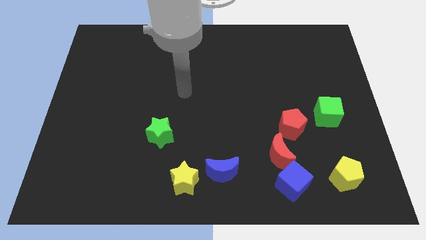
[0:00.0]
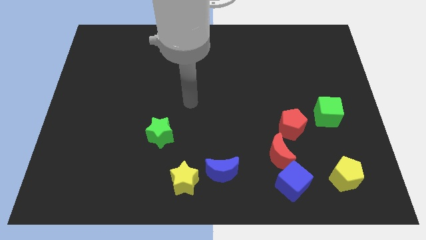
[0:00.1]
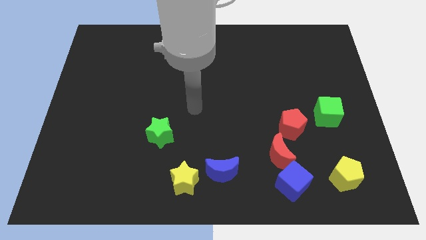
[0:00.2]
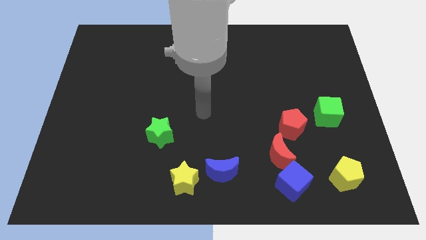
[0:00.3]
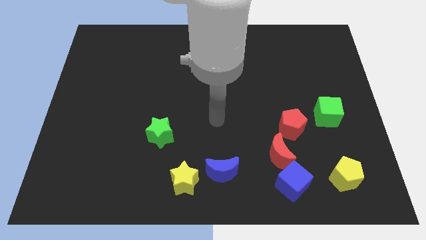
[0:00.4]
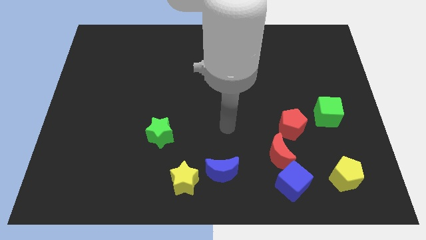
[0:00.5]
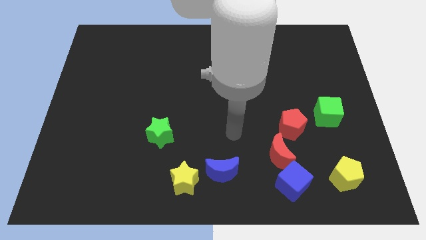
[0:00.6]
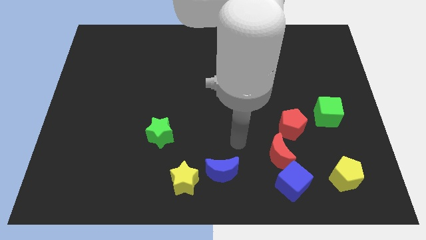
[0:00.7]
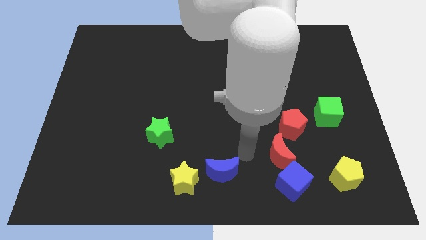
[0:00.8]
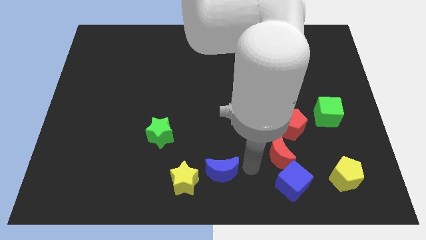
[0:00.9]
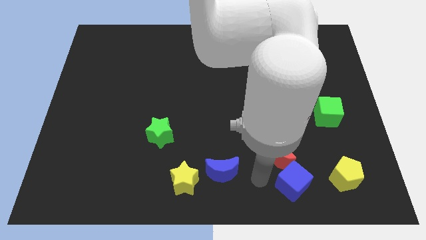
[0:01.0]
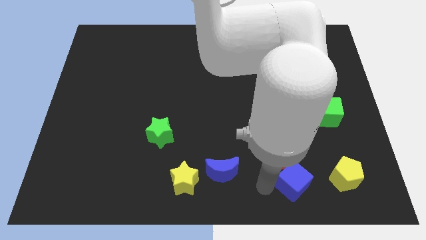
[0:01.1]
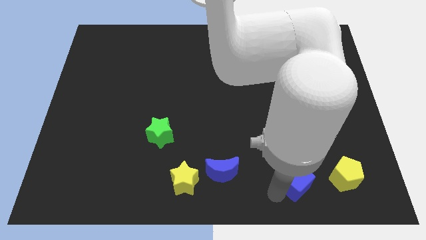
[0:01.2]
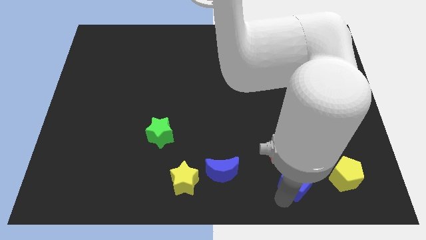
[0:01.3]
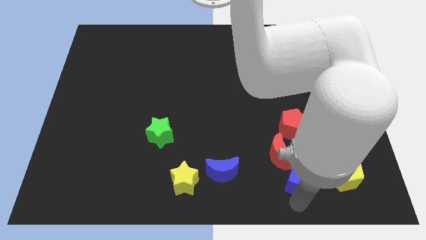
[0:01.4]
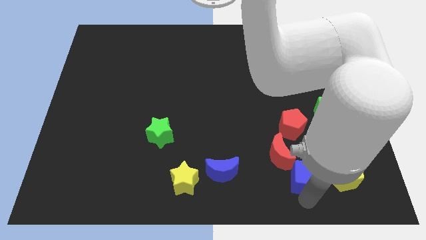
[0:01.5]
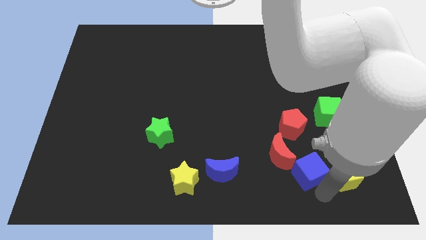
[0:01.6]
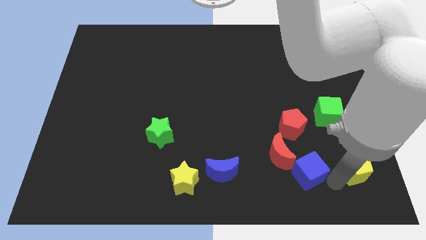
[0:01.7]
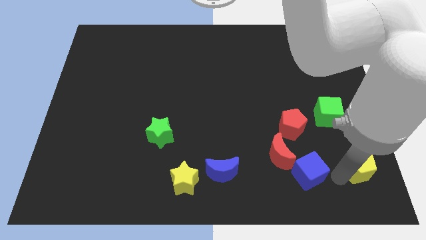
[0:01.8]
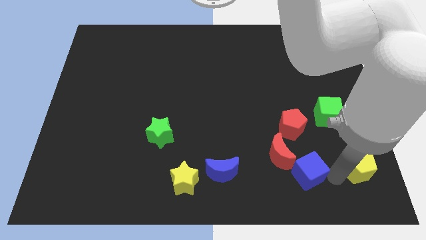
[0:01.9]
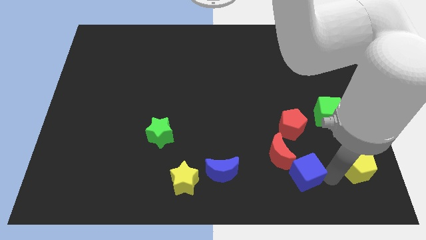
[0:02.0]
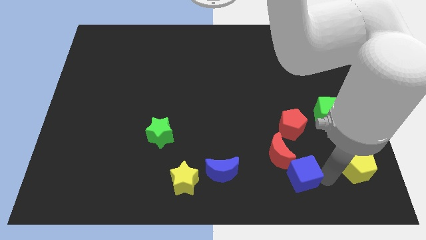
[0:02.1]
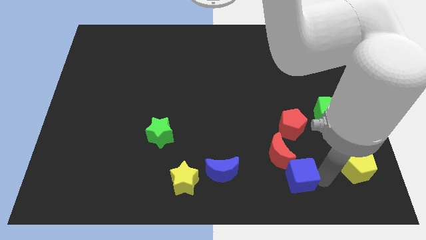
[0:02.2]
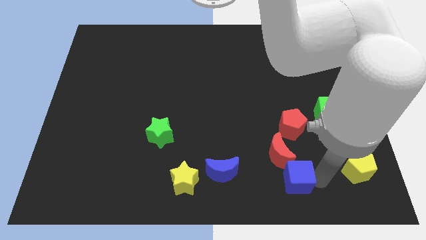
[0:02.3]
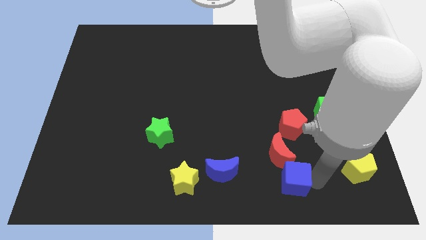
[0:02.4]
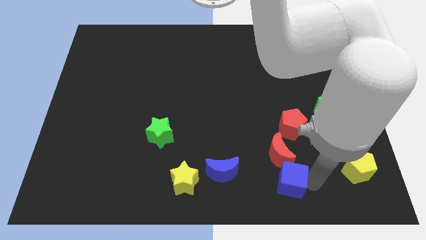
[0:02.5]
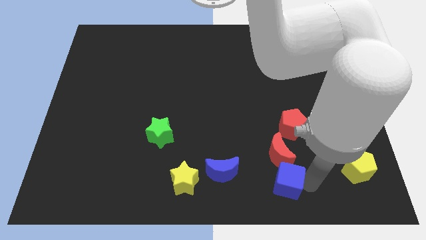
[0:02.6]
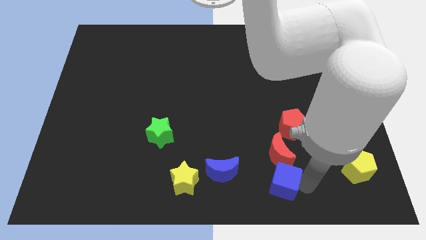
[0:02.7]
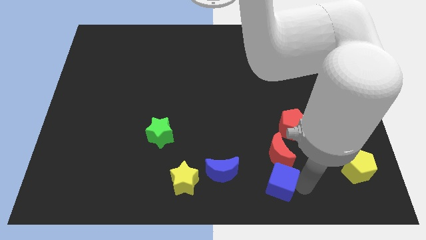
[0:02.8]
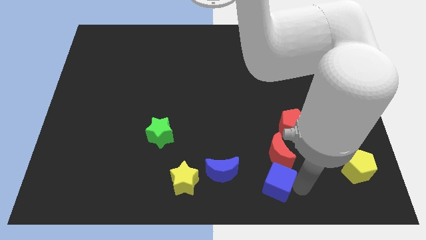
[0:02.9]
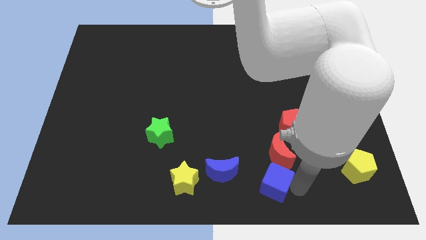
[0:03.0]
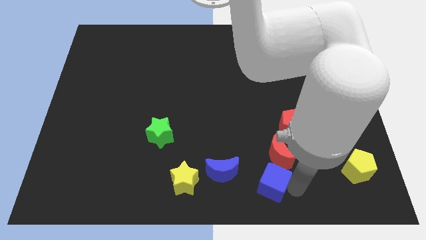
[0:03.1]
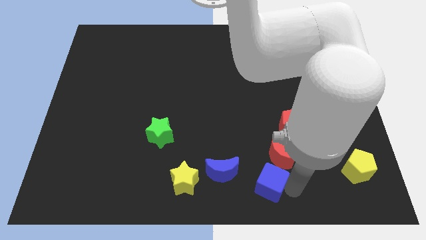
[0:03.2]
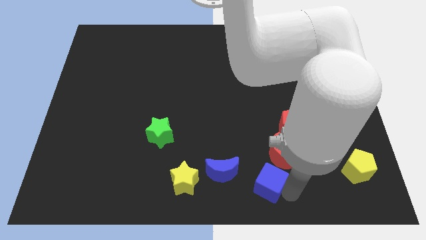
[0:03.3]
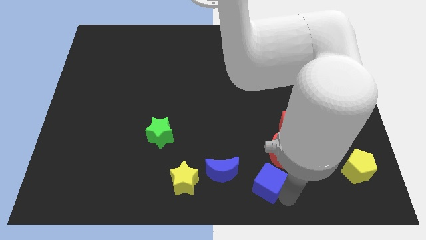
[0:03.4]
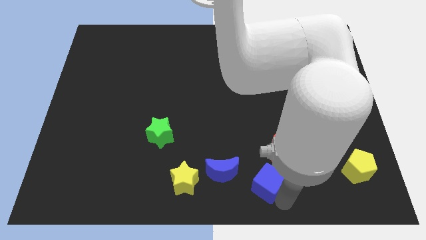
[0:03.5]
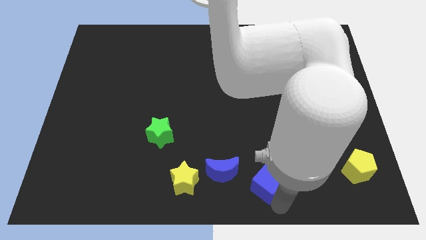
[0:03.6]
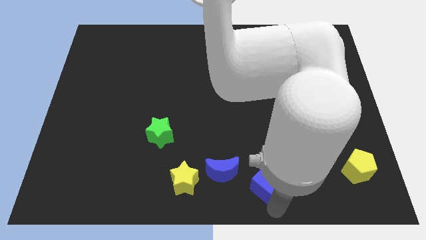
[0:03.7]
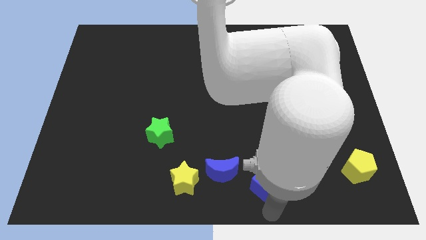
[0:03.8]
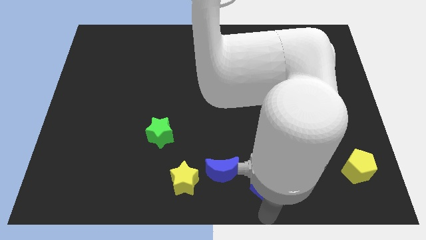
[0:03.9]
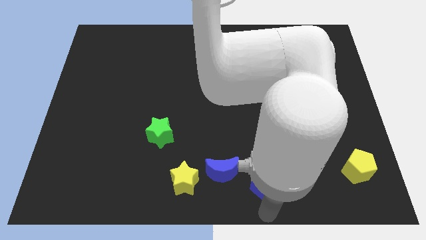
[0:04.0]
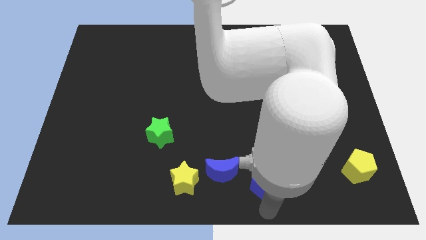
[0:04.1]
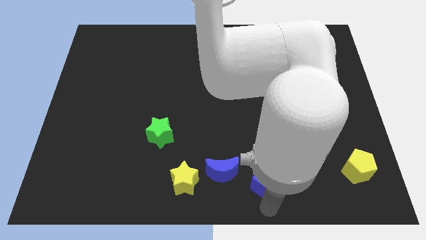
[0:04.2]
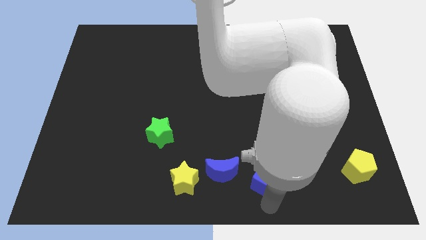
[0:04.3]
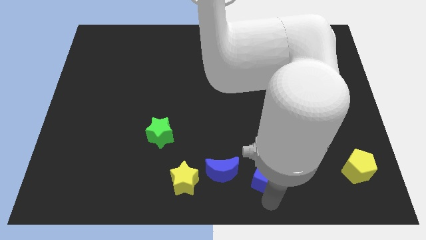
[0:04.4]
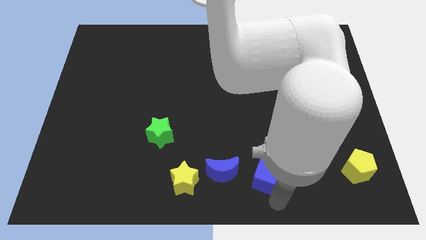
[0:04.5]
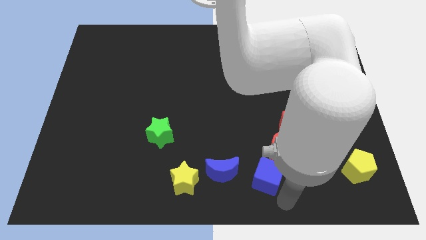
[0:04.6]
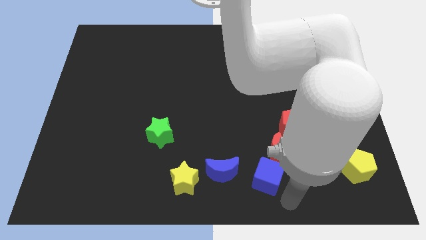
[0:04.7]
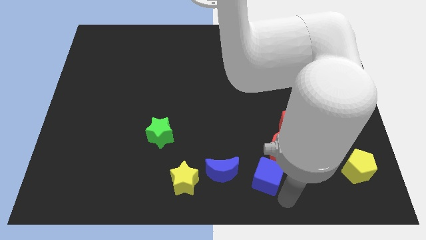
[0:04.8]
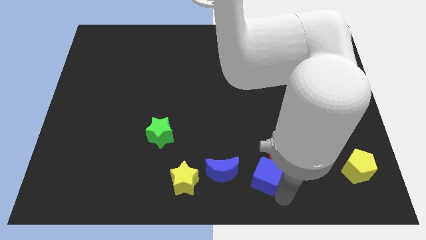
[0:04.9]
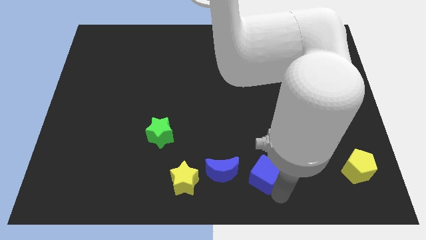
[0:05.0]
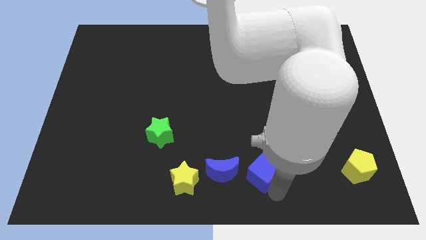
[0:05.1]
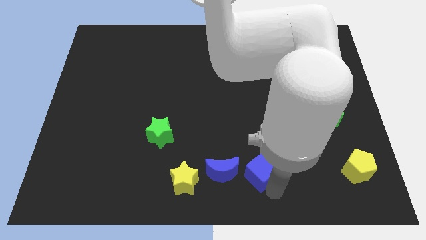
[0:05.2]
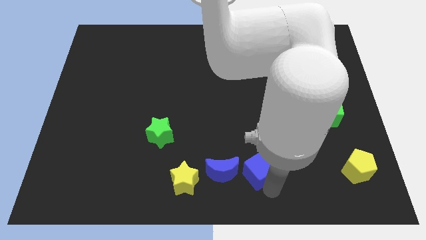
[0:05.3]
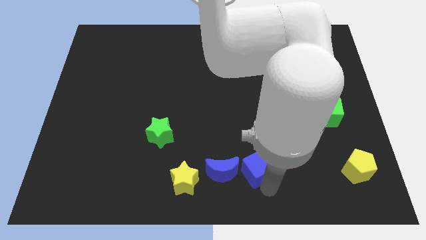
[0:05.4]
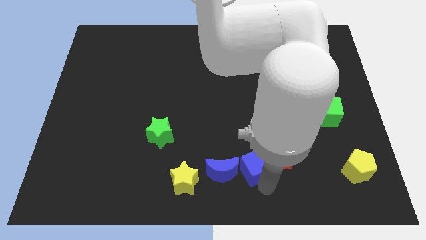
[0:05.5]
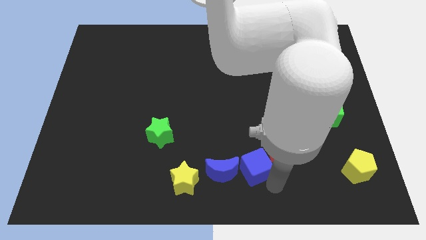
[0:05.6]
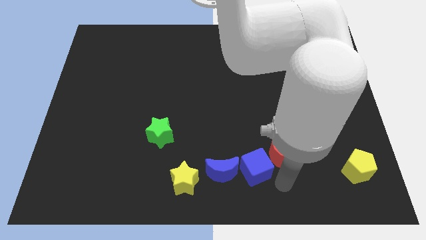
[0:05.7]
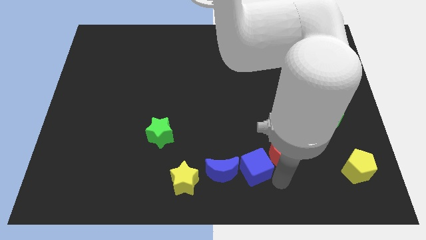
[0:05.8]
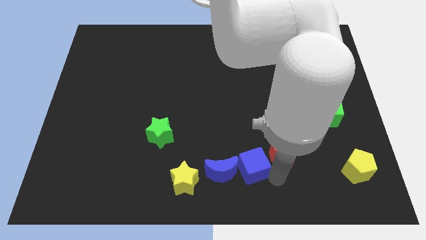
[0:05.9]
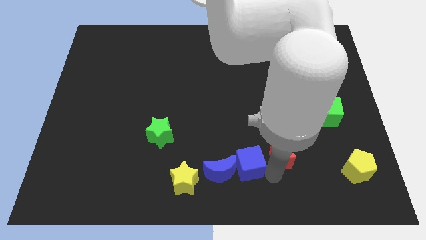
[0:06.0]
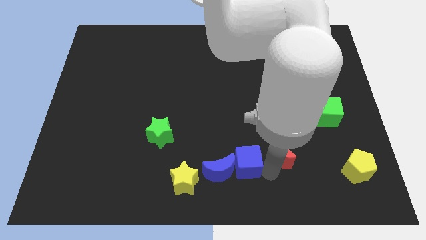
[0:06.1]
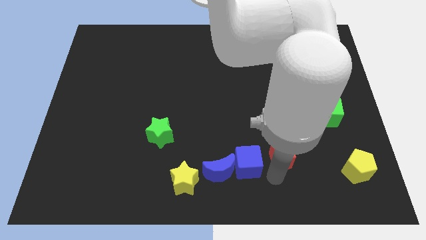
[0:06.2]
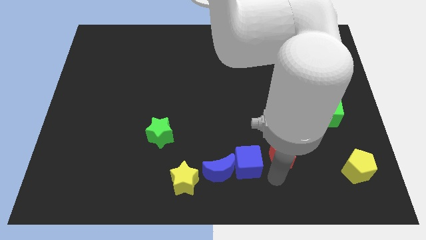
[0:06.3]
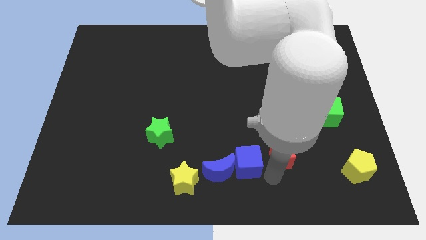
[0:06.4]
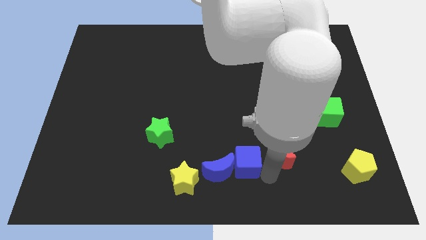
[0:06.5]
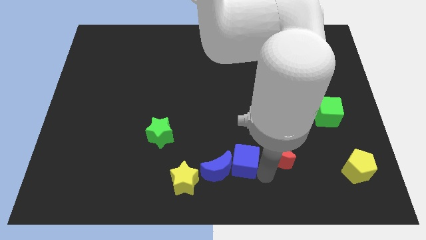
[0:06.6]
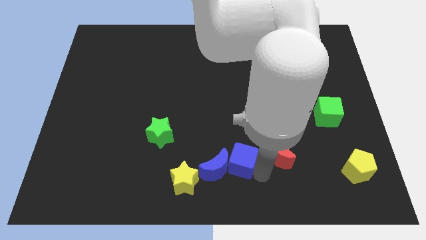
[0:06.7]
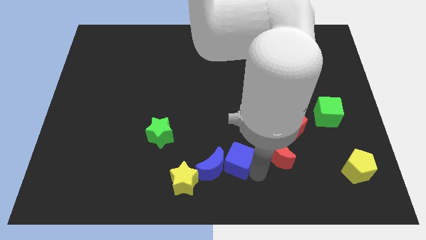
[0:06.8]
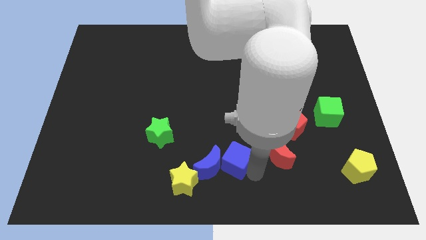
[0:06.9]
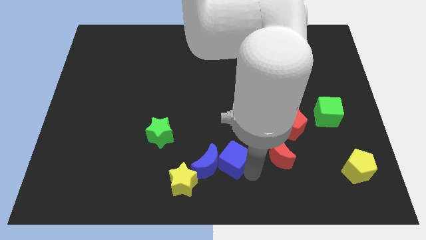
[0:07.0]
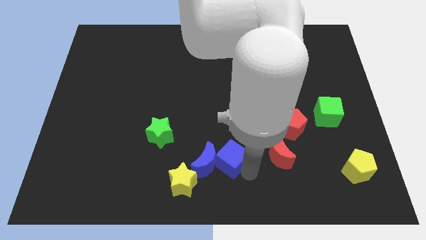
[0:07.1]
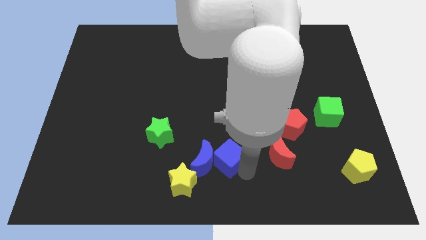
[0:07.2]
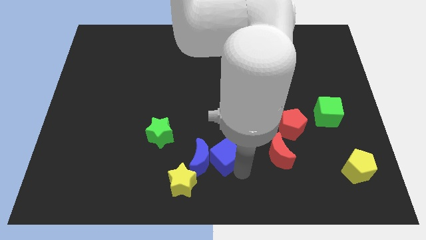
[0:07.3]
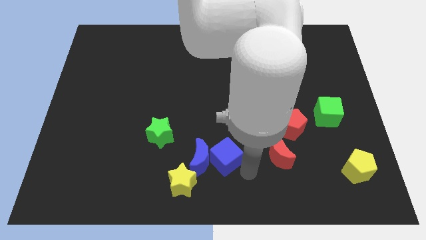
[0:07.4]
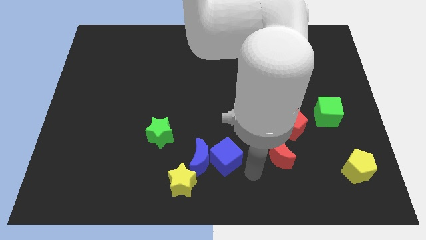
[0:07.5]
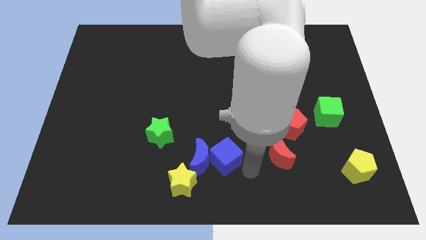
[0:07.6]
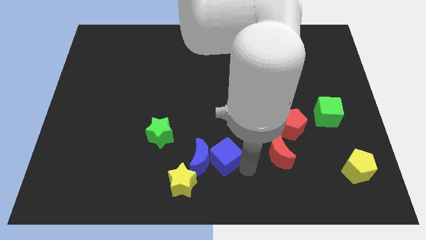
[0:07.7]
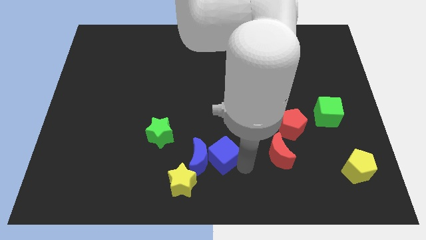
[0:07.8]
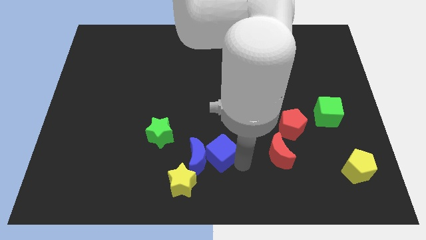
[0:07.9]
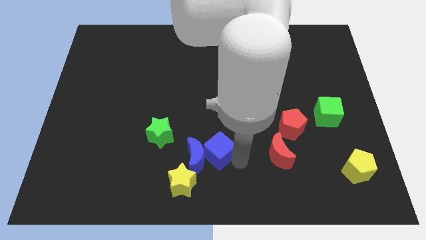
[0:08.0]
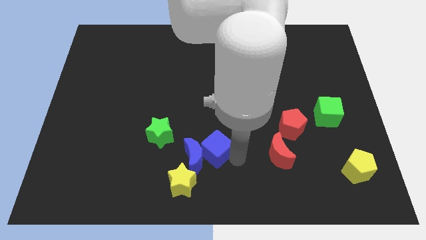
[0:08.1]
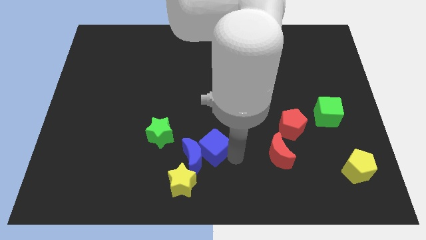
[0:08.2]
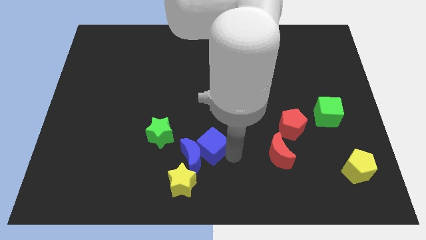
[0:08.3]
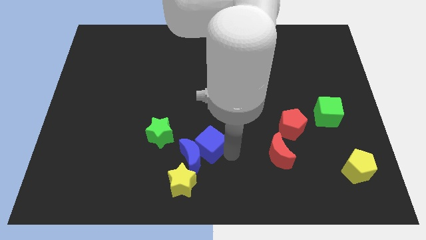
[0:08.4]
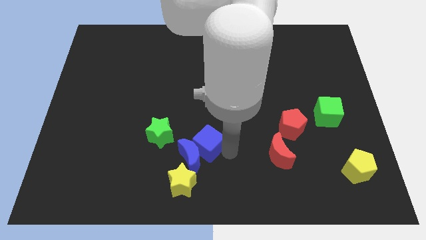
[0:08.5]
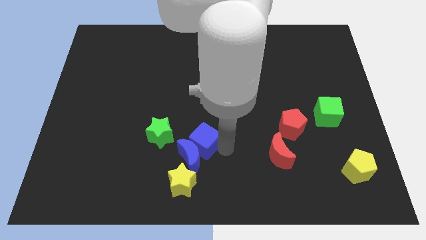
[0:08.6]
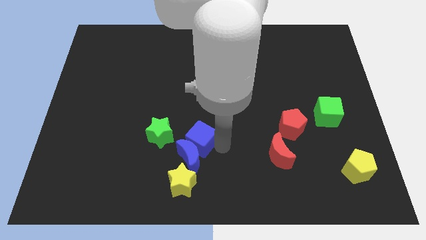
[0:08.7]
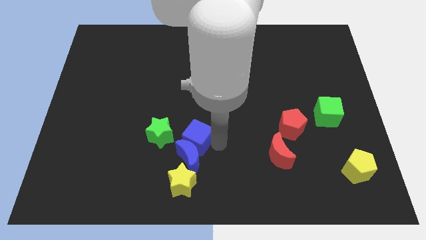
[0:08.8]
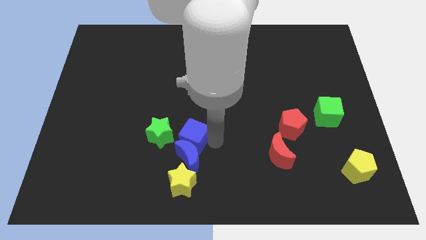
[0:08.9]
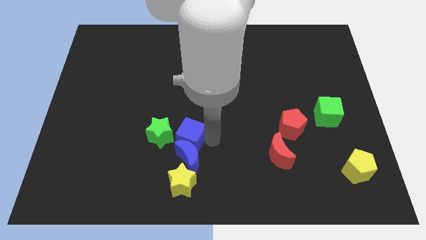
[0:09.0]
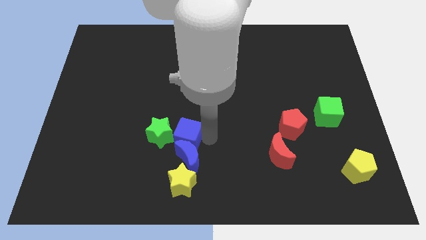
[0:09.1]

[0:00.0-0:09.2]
slide the blue cube next to the green star
